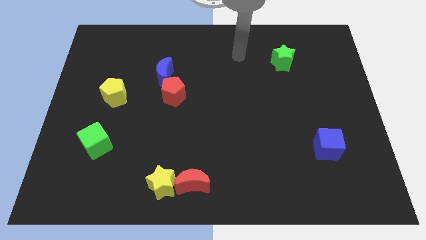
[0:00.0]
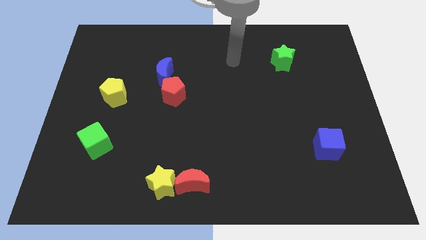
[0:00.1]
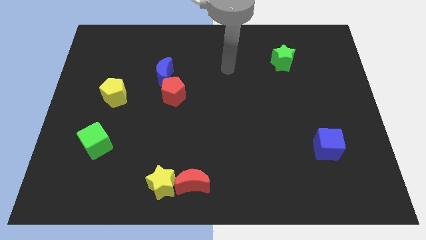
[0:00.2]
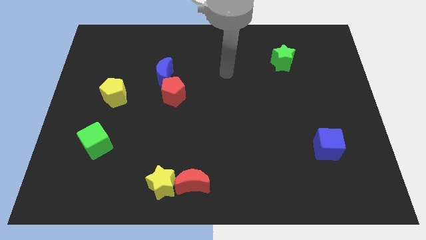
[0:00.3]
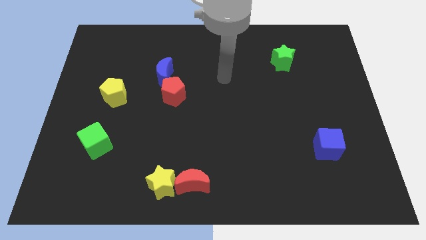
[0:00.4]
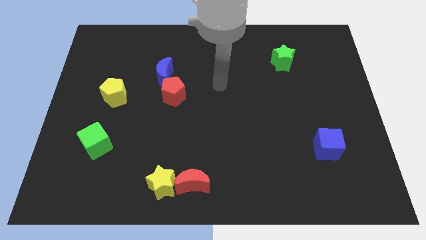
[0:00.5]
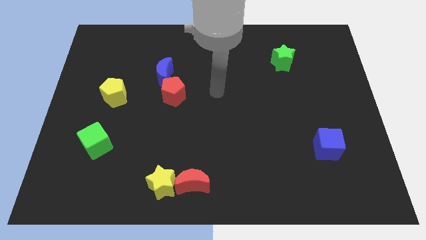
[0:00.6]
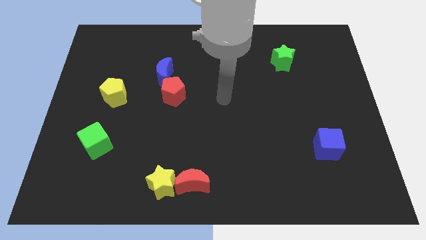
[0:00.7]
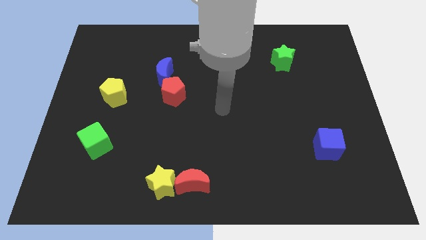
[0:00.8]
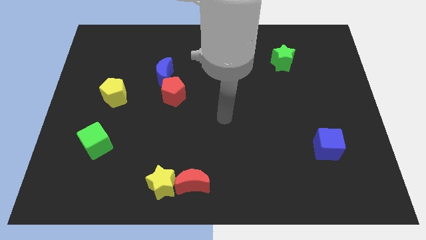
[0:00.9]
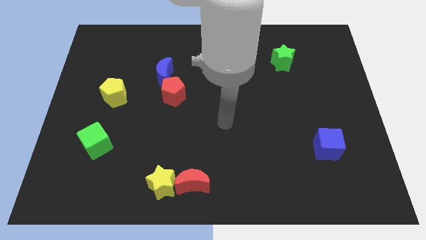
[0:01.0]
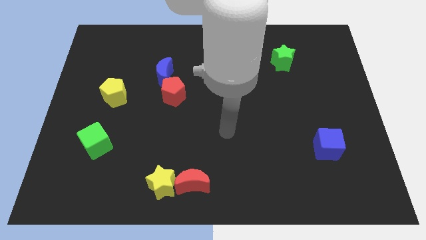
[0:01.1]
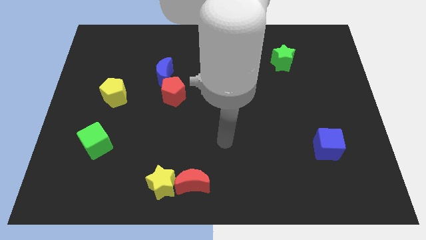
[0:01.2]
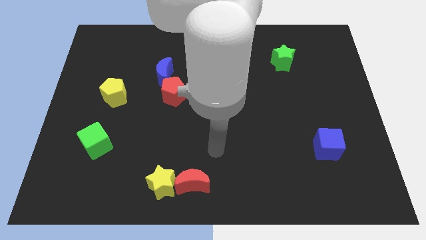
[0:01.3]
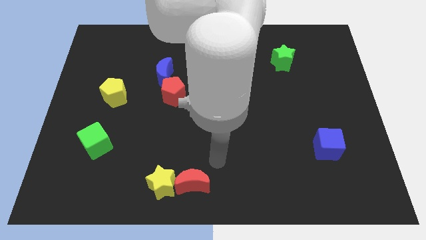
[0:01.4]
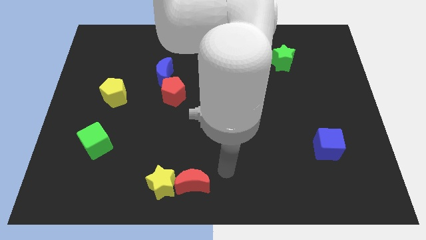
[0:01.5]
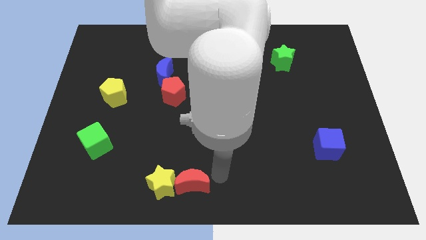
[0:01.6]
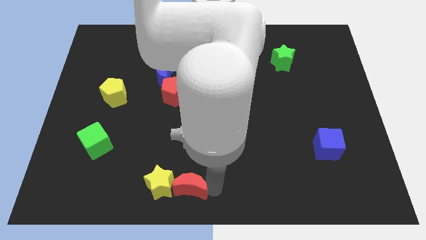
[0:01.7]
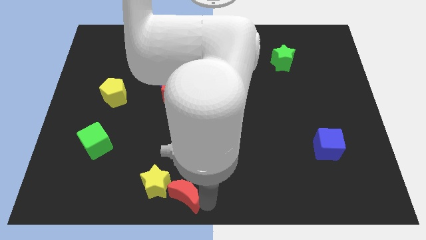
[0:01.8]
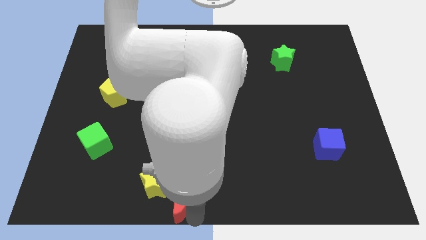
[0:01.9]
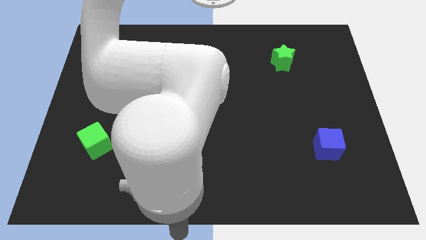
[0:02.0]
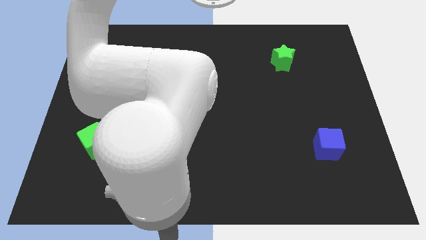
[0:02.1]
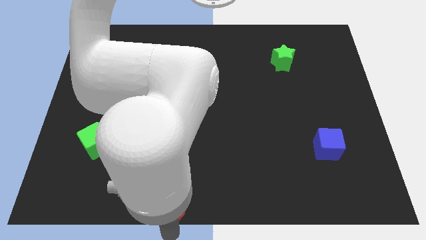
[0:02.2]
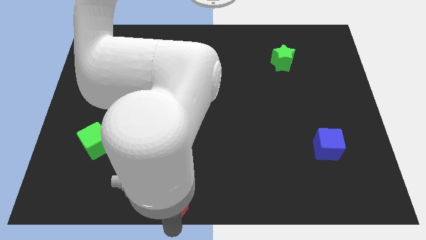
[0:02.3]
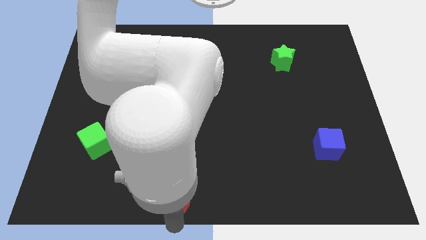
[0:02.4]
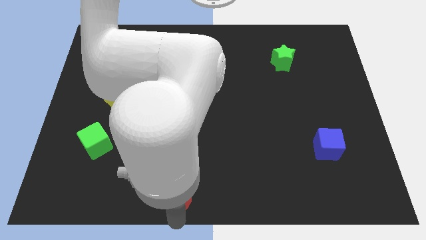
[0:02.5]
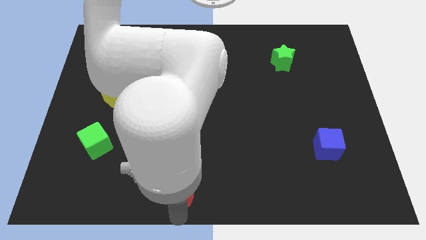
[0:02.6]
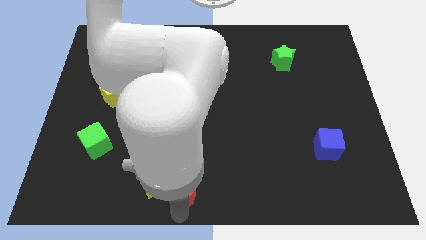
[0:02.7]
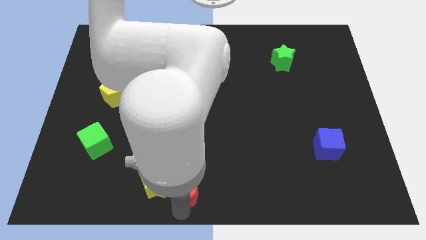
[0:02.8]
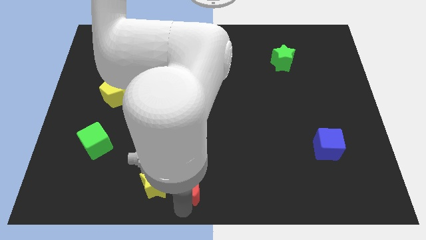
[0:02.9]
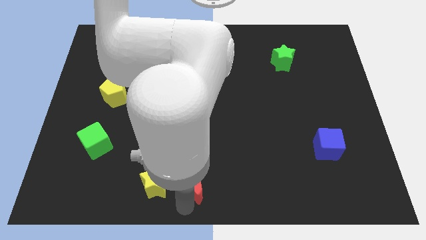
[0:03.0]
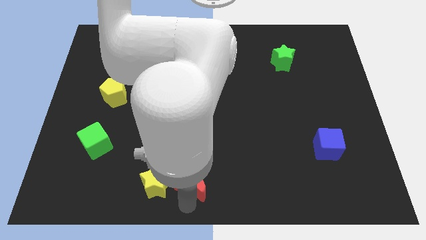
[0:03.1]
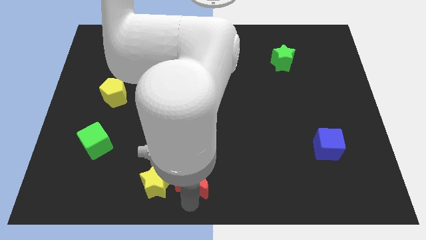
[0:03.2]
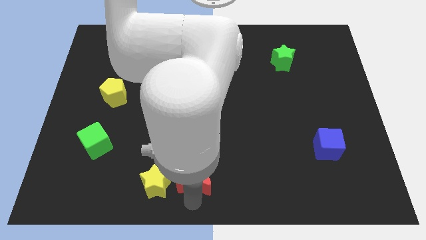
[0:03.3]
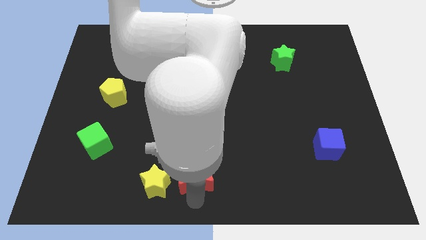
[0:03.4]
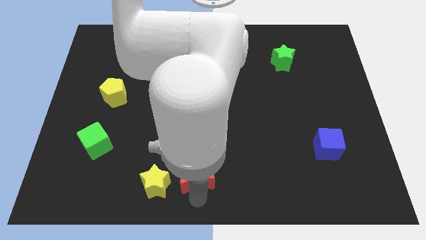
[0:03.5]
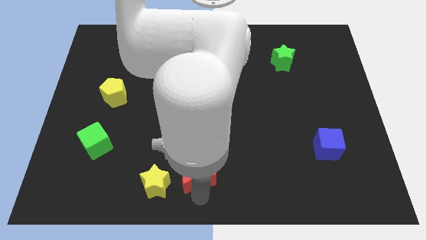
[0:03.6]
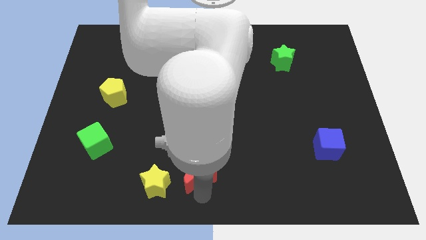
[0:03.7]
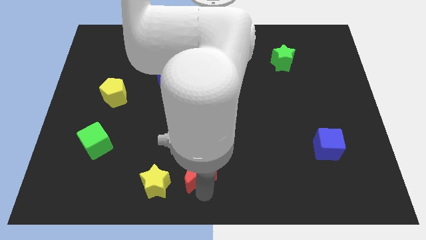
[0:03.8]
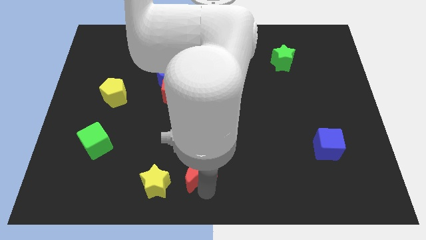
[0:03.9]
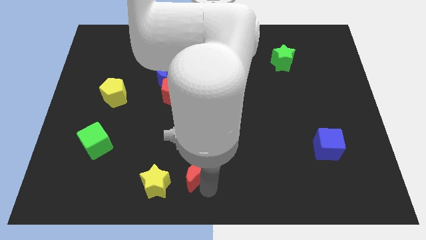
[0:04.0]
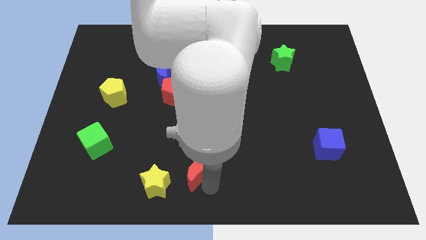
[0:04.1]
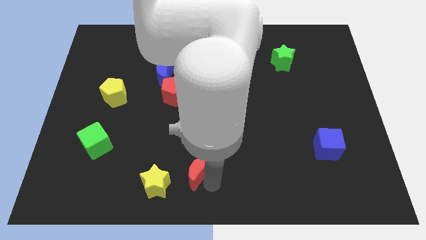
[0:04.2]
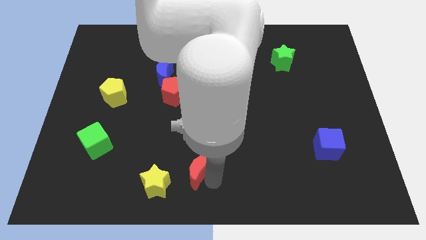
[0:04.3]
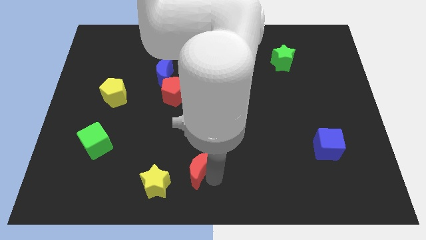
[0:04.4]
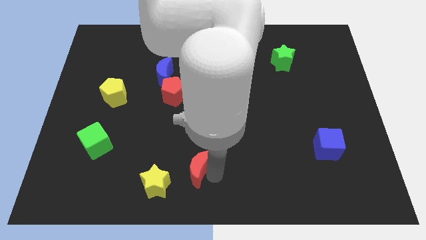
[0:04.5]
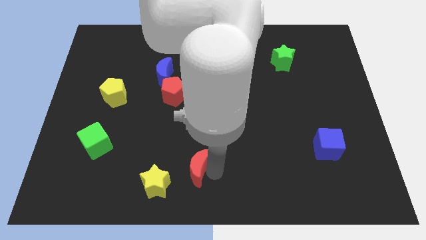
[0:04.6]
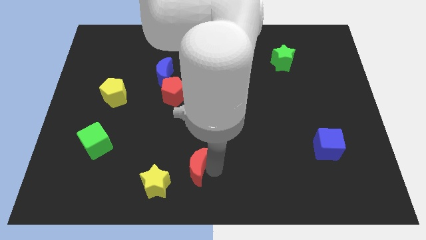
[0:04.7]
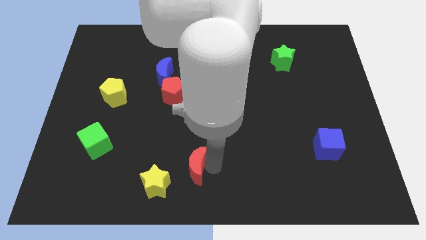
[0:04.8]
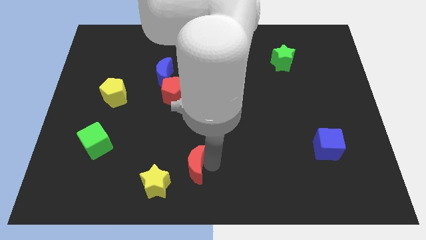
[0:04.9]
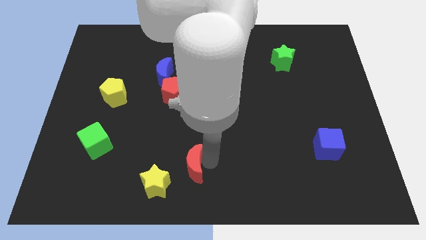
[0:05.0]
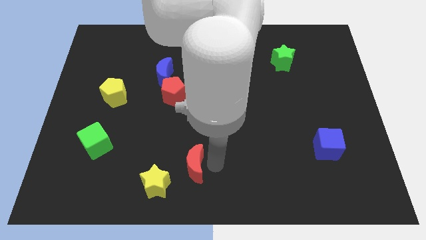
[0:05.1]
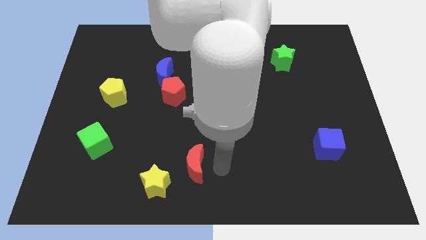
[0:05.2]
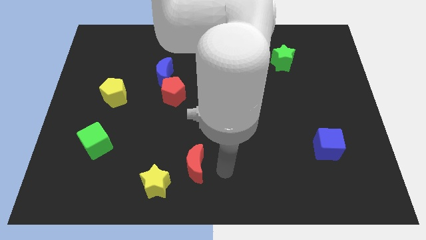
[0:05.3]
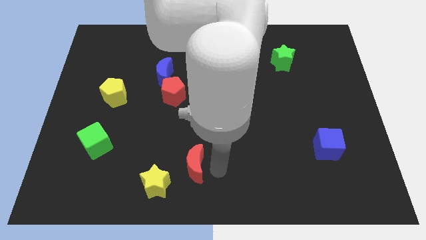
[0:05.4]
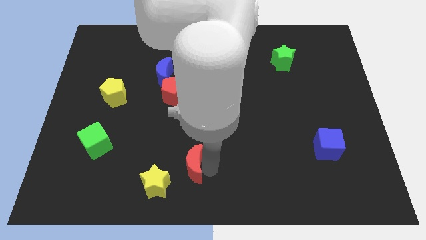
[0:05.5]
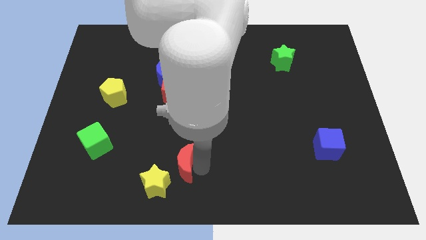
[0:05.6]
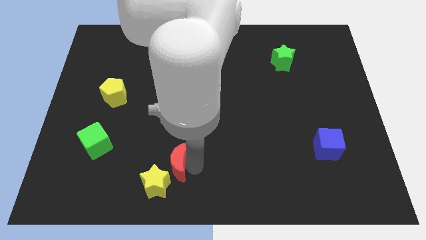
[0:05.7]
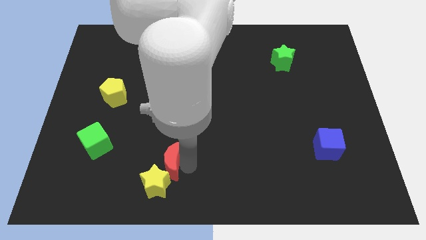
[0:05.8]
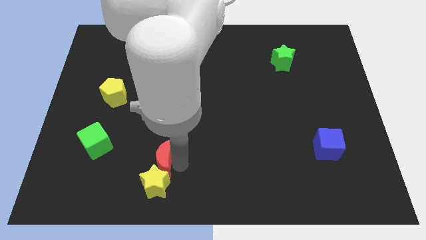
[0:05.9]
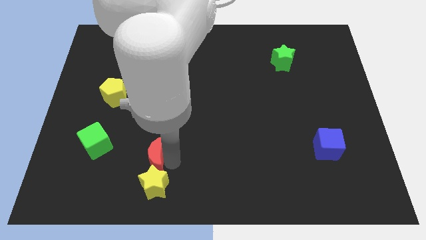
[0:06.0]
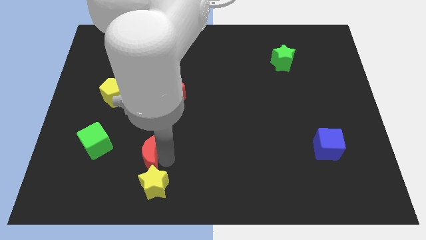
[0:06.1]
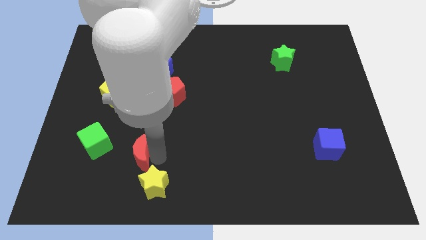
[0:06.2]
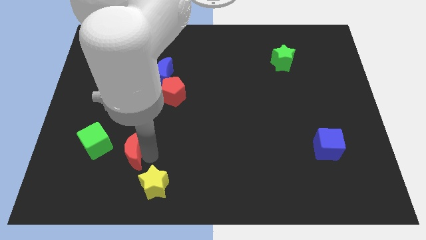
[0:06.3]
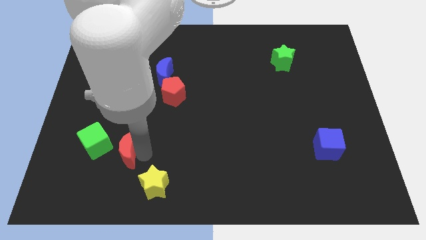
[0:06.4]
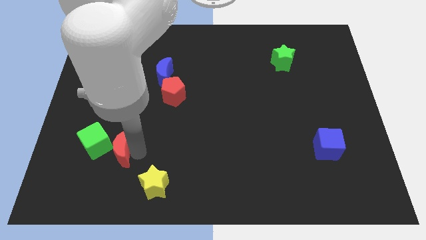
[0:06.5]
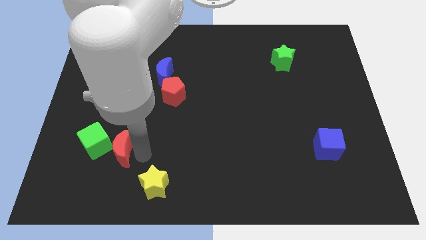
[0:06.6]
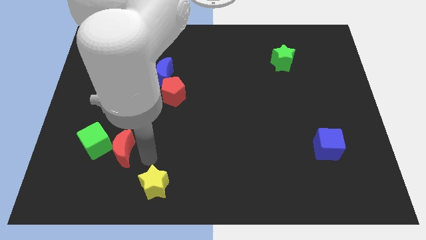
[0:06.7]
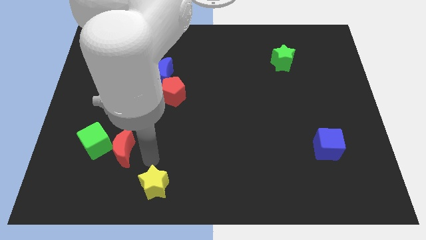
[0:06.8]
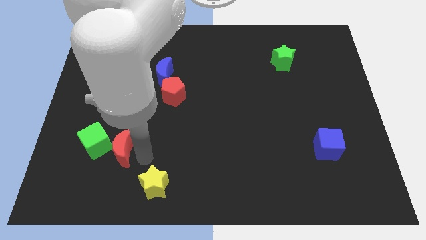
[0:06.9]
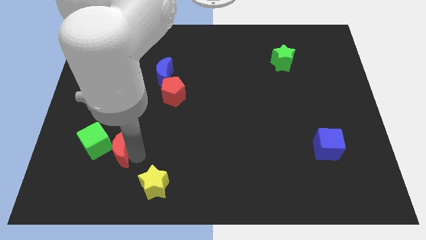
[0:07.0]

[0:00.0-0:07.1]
move the red moon towards the green cube

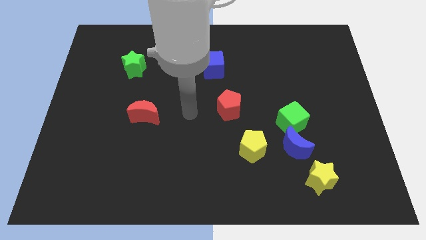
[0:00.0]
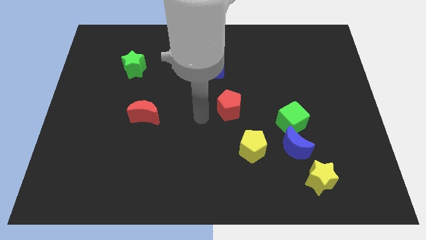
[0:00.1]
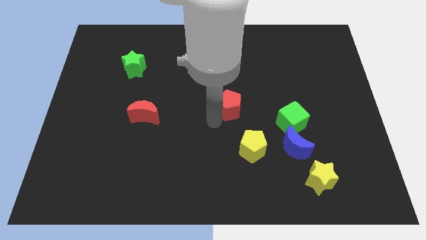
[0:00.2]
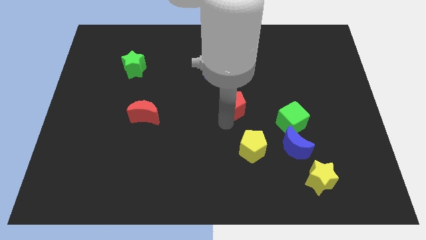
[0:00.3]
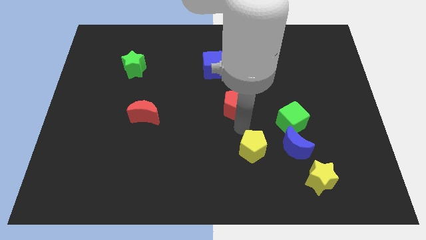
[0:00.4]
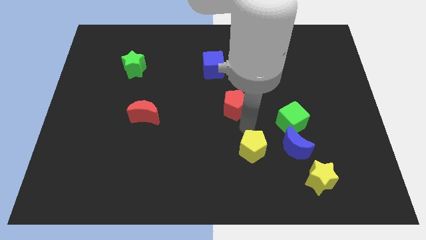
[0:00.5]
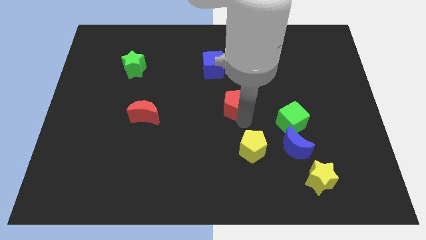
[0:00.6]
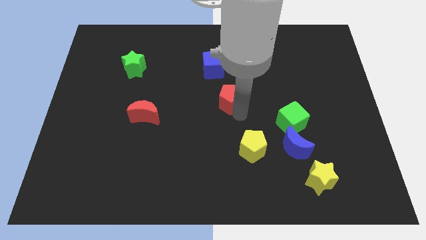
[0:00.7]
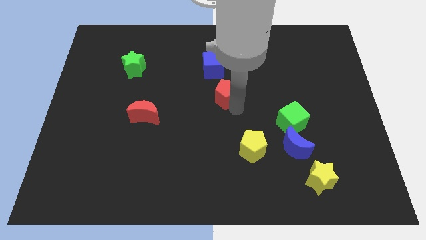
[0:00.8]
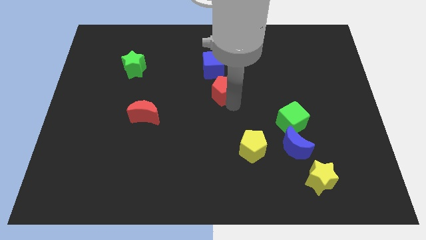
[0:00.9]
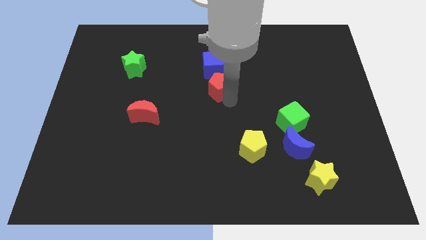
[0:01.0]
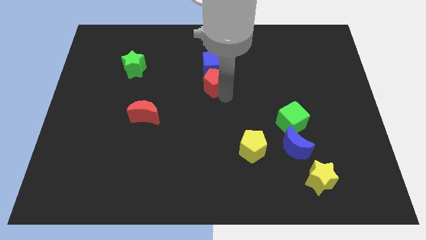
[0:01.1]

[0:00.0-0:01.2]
put the red pentagon next to the blue cube

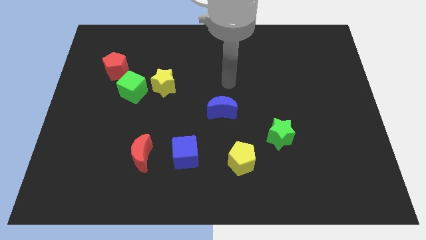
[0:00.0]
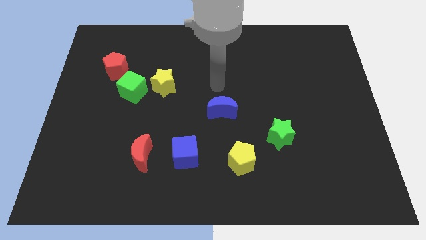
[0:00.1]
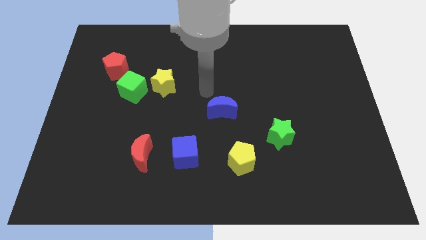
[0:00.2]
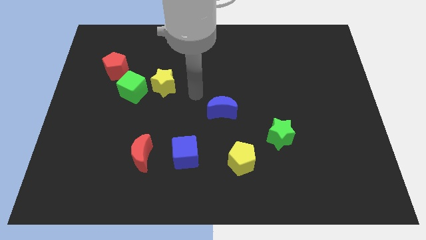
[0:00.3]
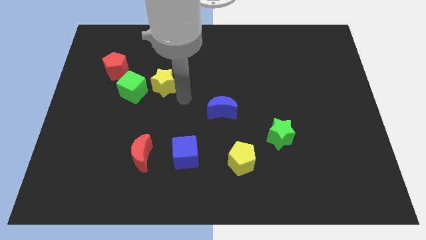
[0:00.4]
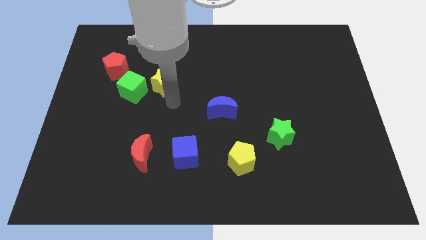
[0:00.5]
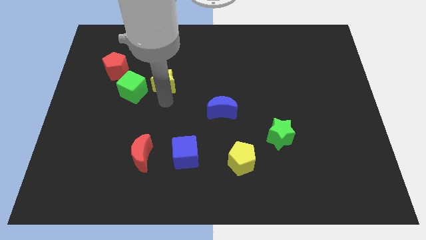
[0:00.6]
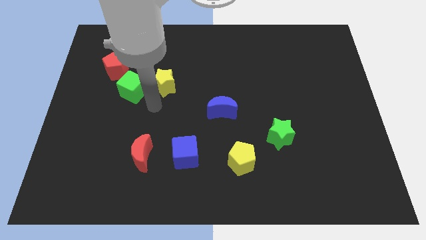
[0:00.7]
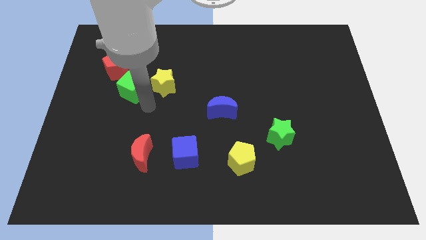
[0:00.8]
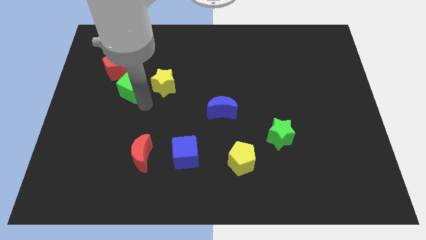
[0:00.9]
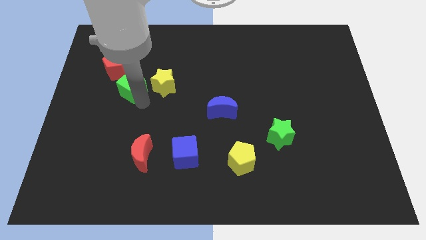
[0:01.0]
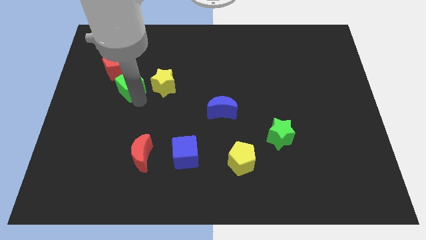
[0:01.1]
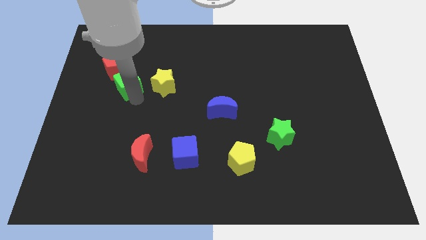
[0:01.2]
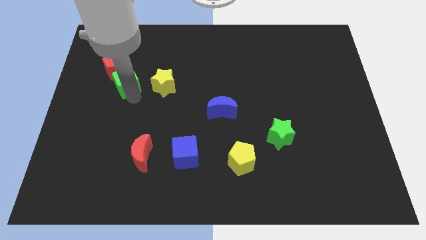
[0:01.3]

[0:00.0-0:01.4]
push the green cube close to the red pentagon
